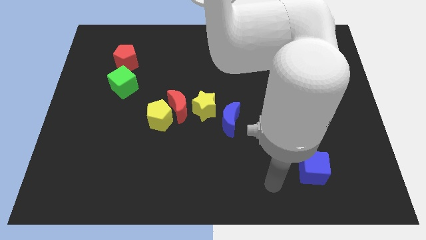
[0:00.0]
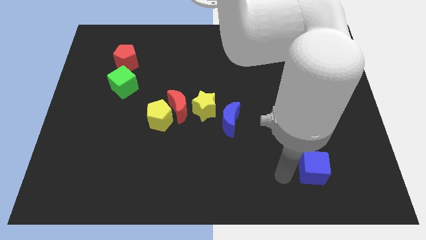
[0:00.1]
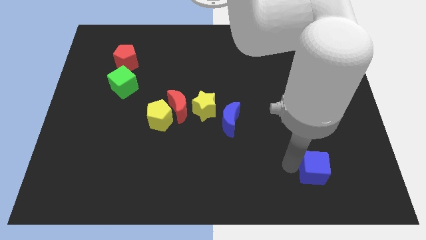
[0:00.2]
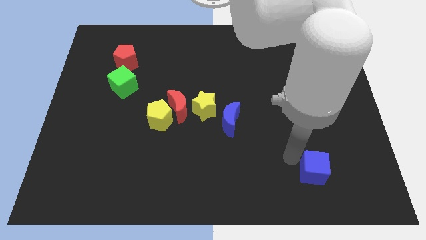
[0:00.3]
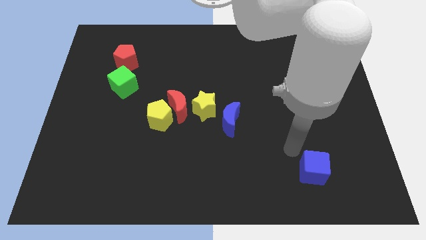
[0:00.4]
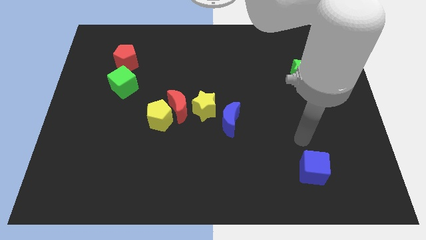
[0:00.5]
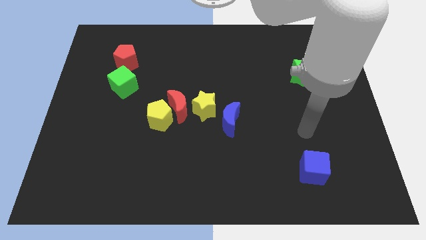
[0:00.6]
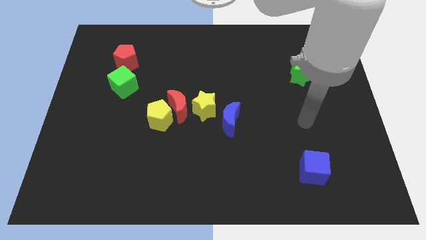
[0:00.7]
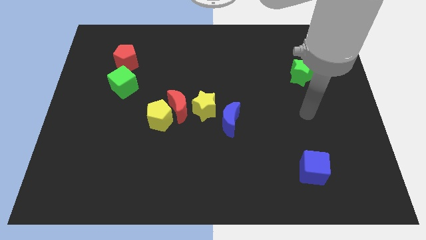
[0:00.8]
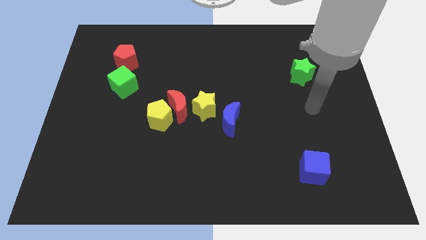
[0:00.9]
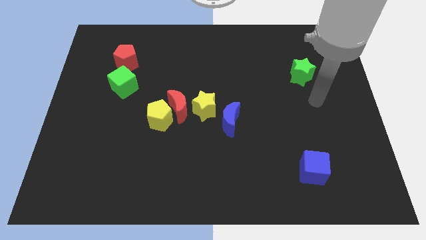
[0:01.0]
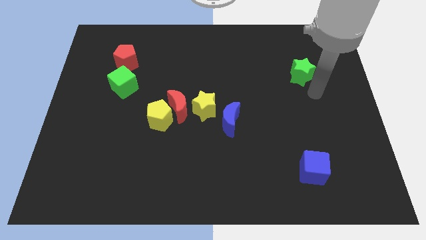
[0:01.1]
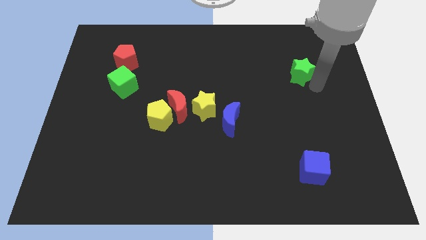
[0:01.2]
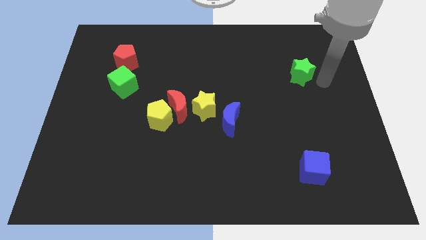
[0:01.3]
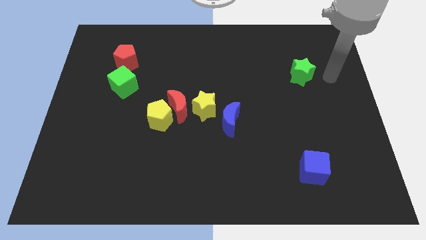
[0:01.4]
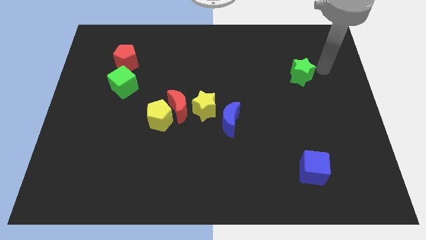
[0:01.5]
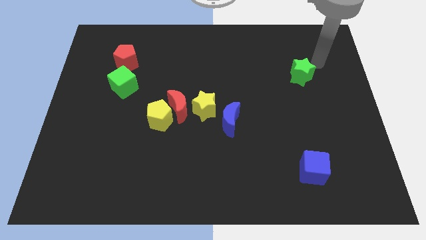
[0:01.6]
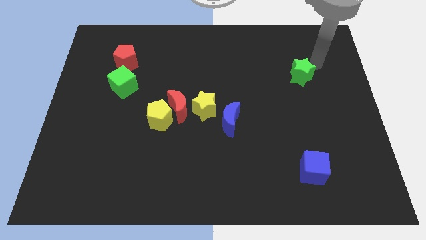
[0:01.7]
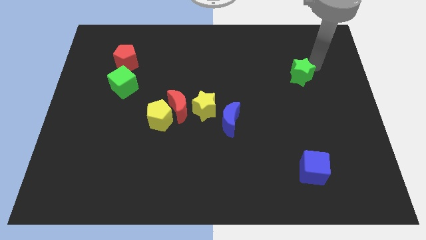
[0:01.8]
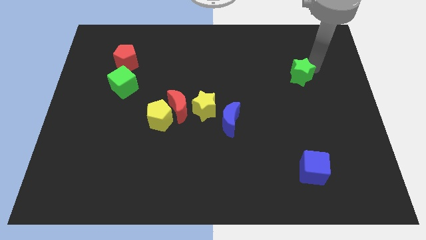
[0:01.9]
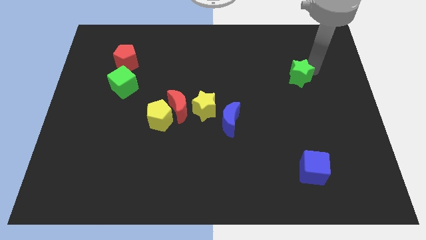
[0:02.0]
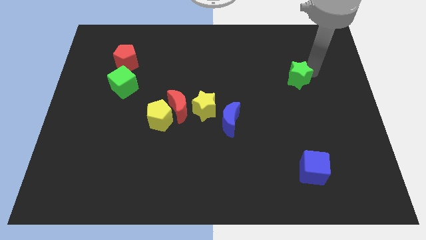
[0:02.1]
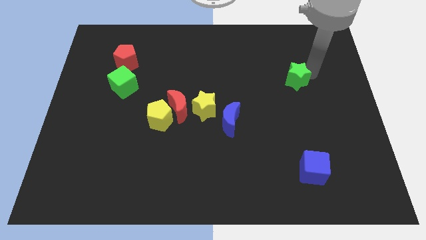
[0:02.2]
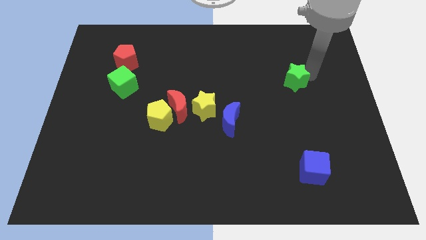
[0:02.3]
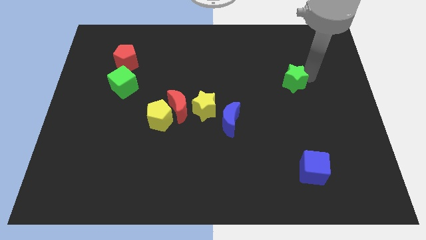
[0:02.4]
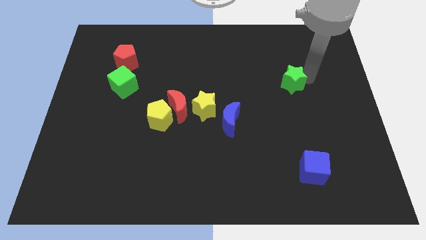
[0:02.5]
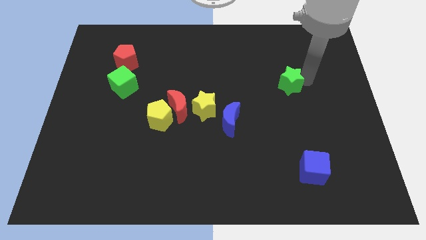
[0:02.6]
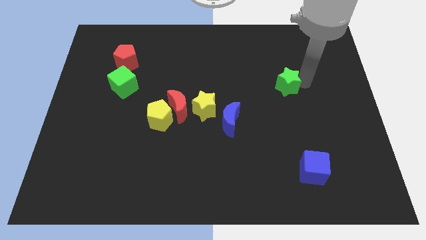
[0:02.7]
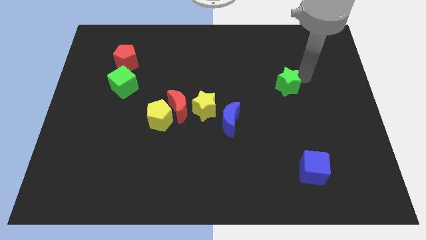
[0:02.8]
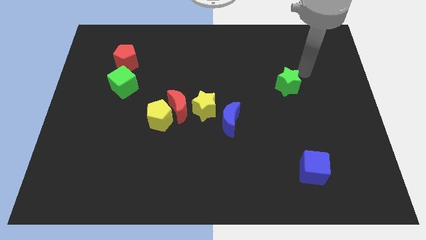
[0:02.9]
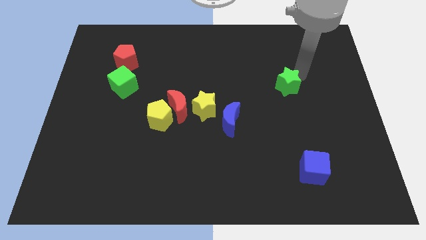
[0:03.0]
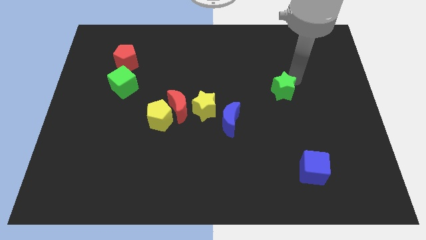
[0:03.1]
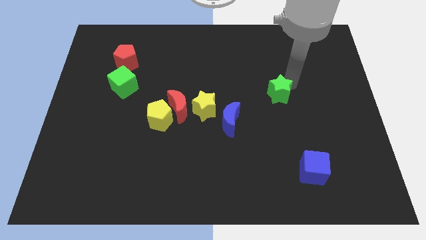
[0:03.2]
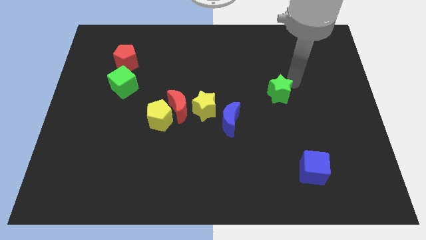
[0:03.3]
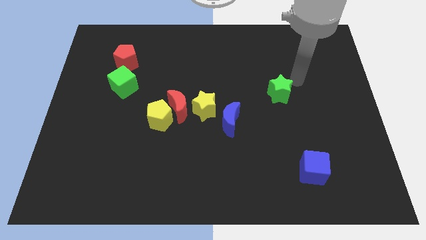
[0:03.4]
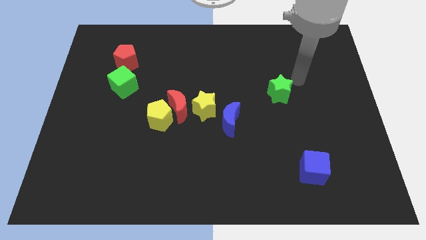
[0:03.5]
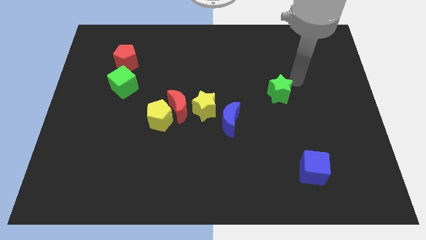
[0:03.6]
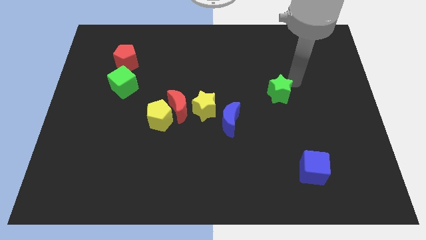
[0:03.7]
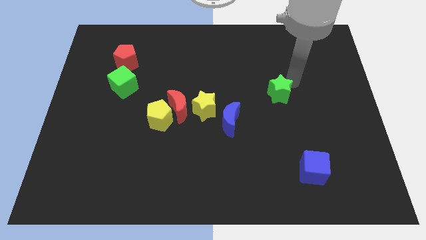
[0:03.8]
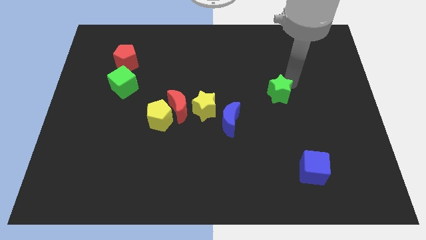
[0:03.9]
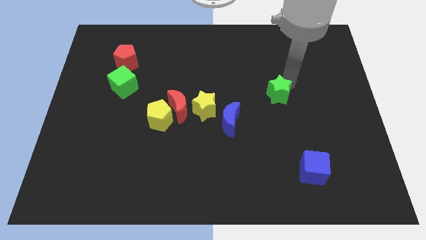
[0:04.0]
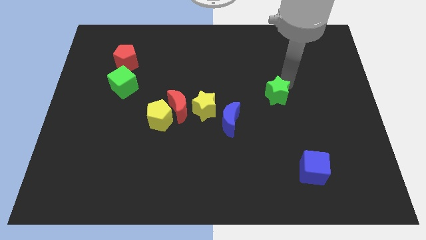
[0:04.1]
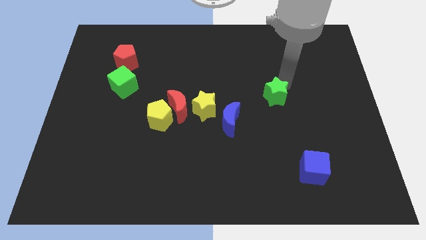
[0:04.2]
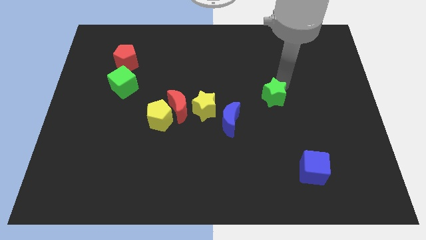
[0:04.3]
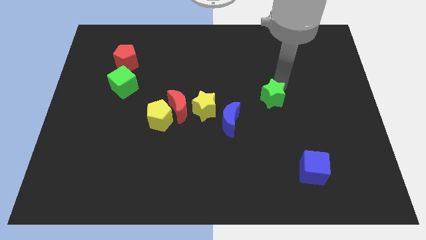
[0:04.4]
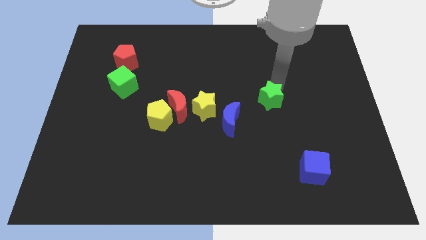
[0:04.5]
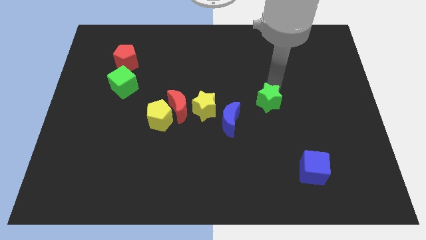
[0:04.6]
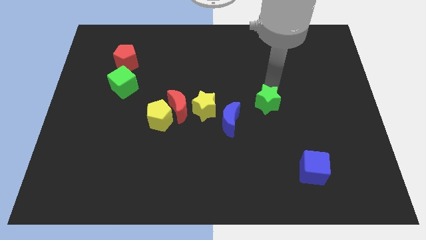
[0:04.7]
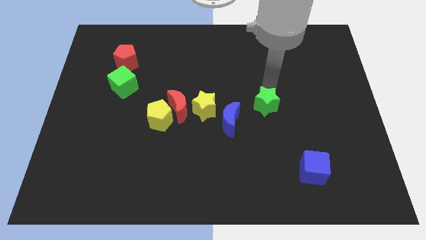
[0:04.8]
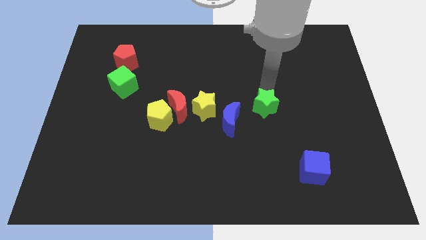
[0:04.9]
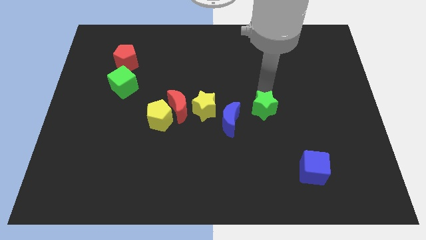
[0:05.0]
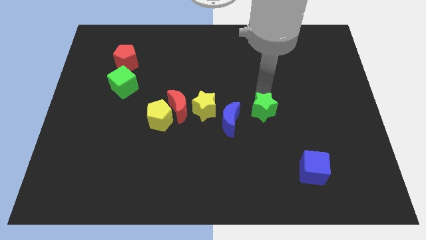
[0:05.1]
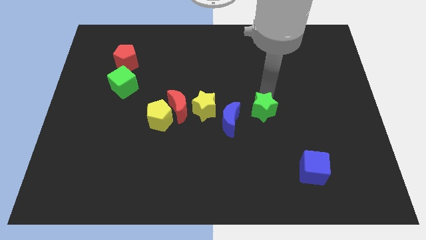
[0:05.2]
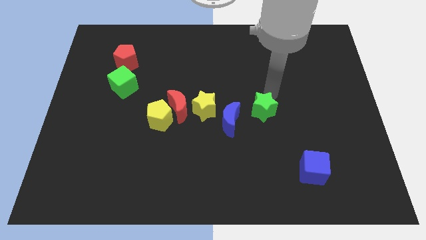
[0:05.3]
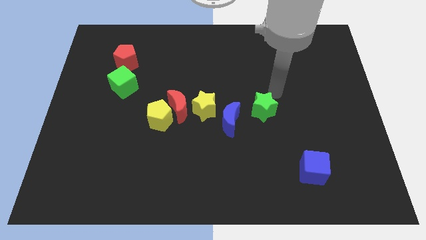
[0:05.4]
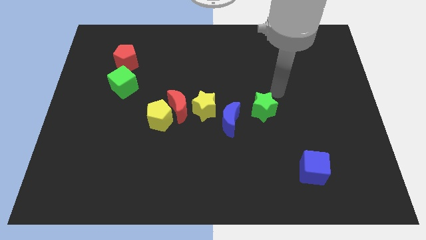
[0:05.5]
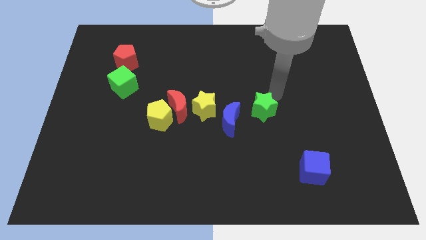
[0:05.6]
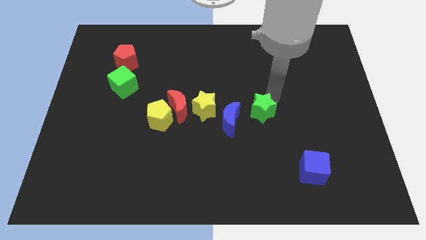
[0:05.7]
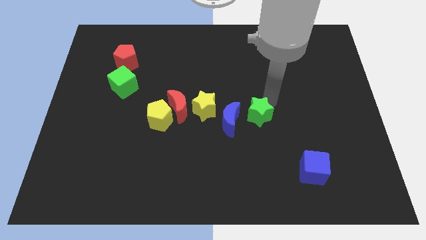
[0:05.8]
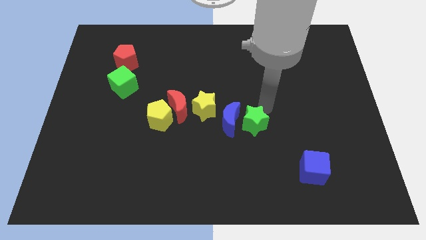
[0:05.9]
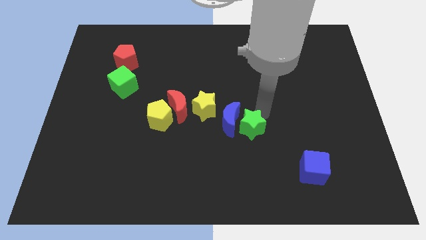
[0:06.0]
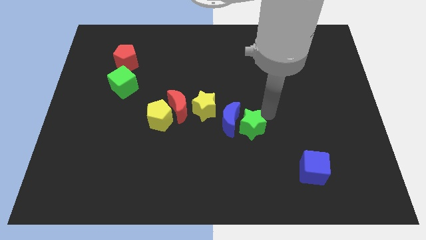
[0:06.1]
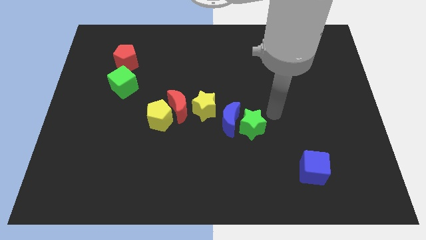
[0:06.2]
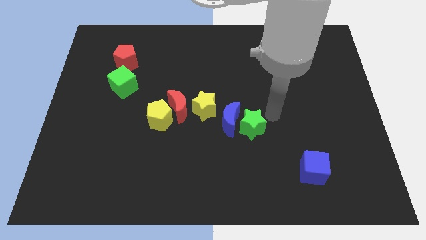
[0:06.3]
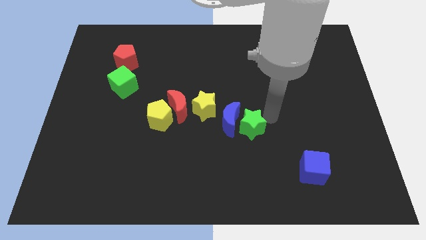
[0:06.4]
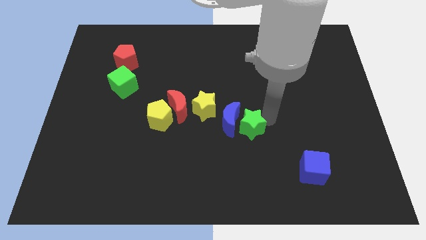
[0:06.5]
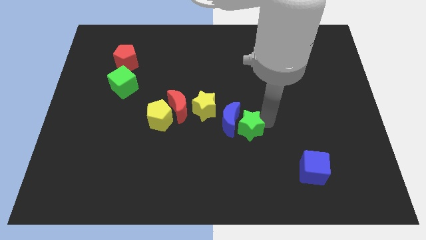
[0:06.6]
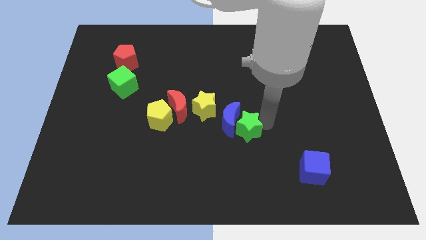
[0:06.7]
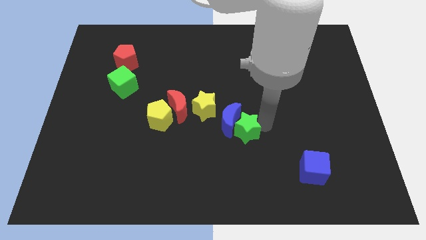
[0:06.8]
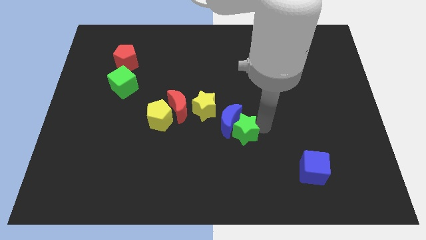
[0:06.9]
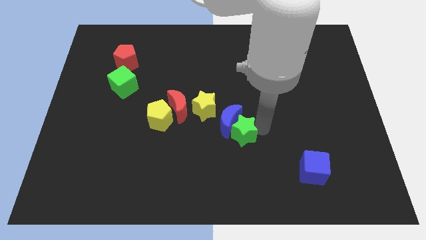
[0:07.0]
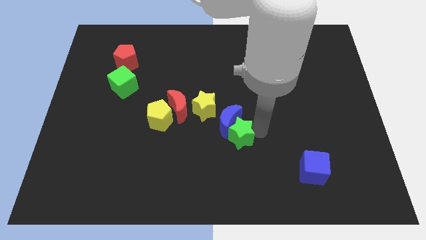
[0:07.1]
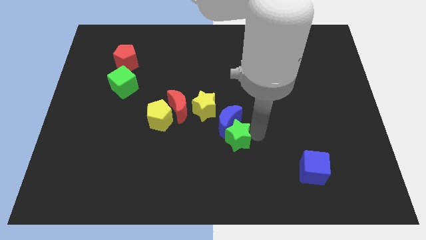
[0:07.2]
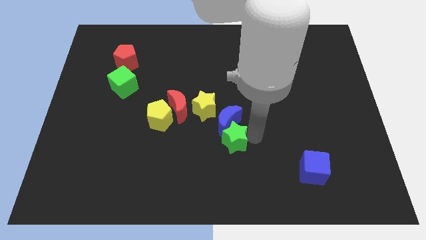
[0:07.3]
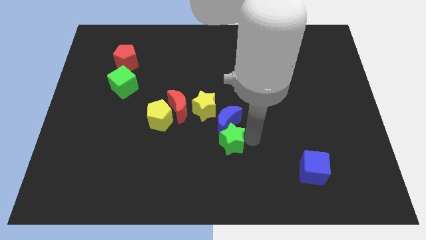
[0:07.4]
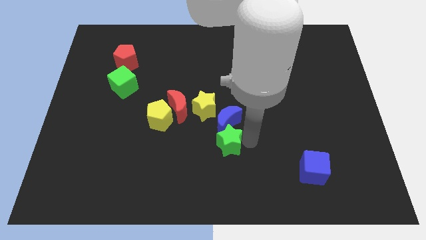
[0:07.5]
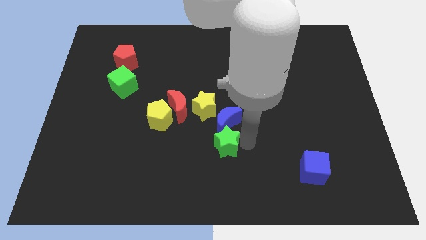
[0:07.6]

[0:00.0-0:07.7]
put the green star to the bottom of the yellow star
